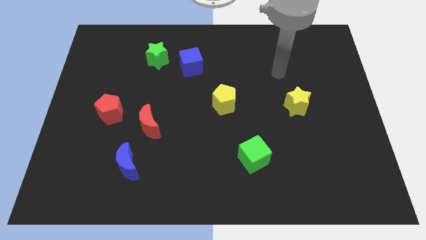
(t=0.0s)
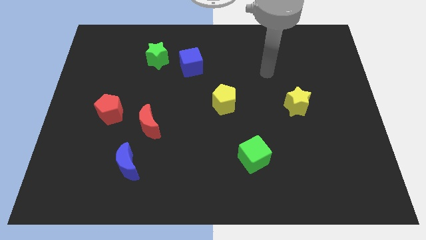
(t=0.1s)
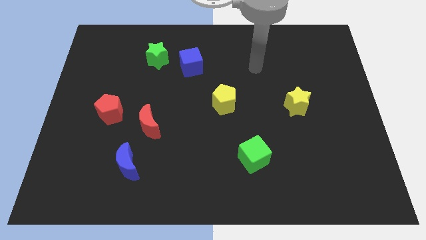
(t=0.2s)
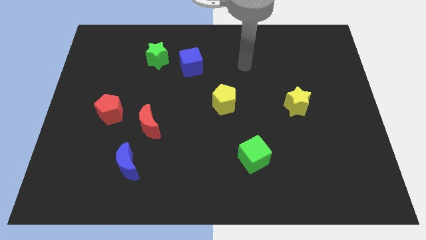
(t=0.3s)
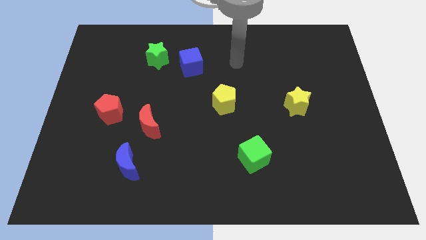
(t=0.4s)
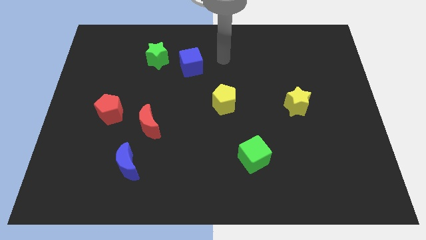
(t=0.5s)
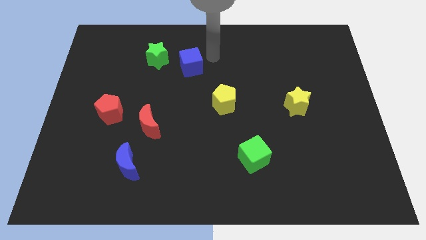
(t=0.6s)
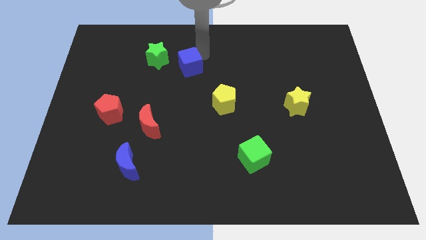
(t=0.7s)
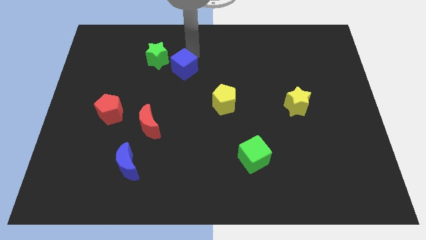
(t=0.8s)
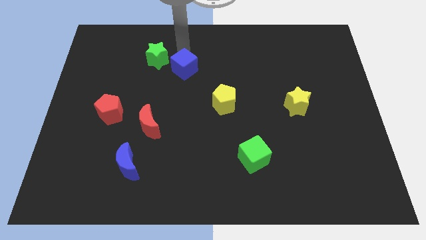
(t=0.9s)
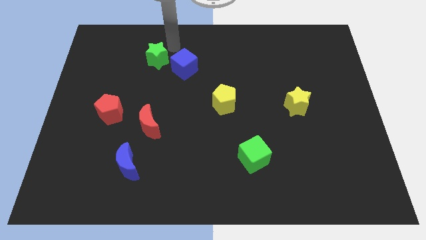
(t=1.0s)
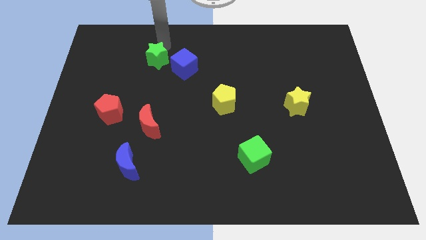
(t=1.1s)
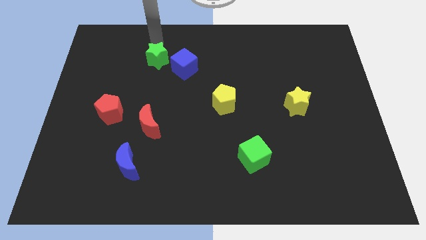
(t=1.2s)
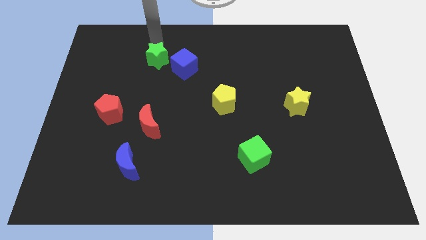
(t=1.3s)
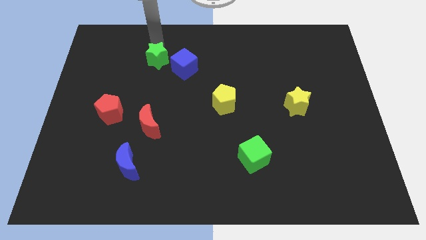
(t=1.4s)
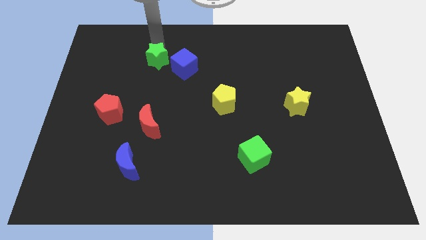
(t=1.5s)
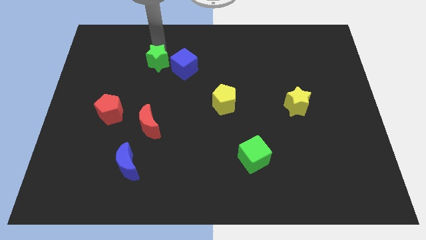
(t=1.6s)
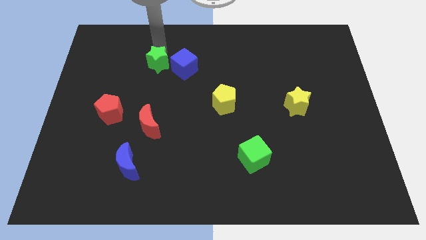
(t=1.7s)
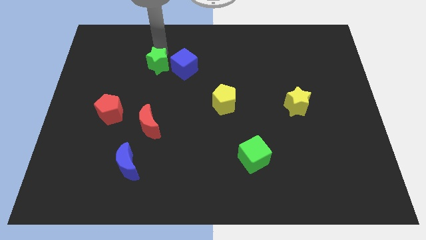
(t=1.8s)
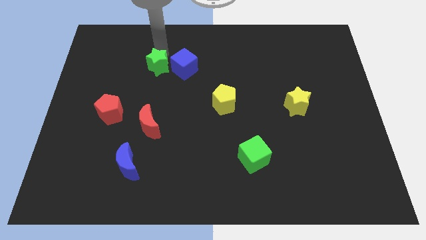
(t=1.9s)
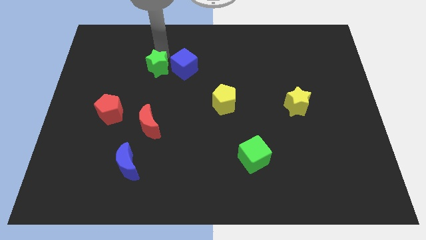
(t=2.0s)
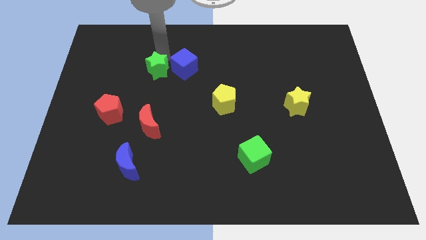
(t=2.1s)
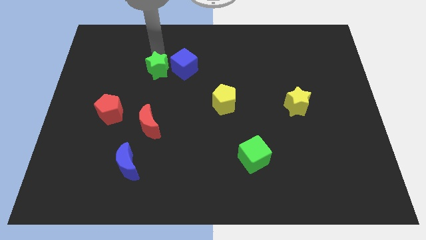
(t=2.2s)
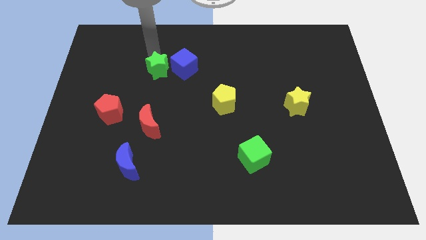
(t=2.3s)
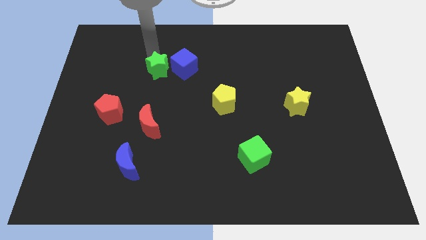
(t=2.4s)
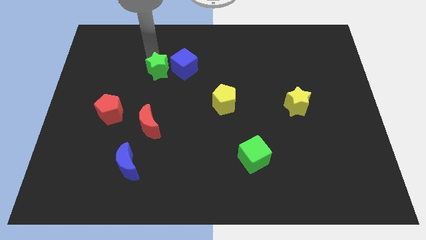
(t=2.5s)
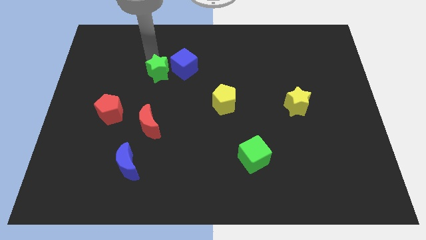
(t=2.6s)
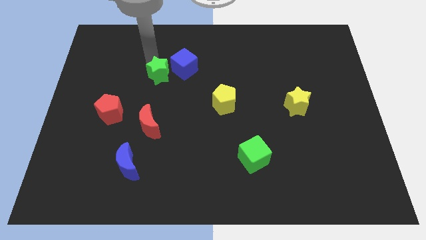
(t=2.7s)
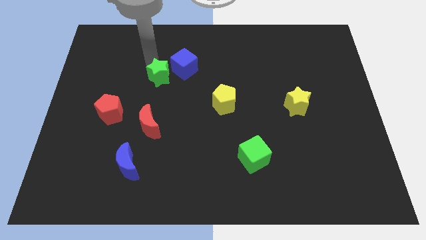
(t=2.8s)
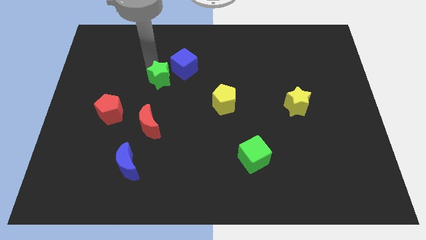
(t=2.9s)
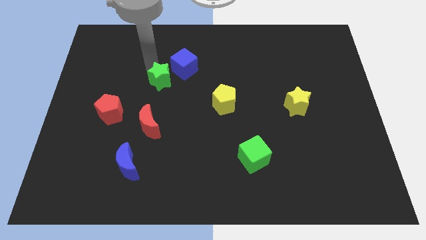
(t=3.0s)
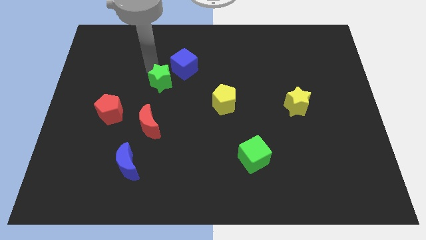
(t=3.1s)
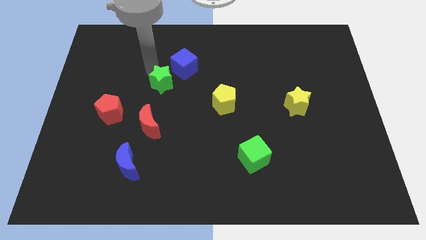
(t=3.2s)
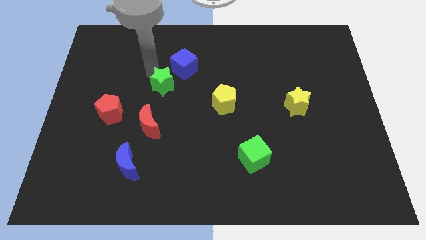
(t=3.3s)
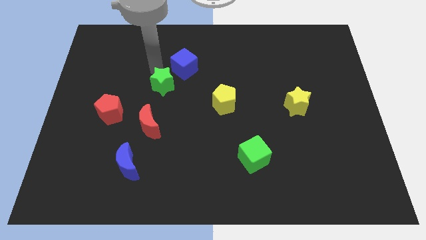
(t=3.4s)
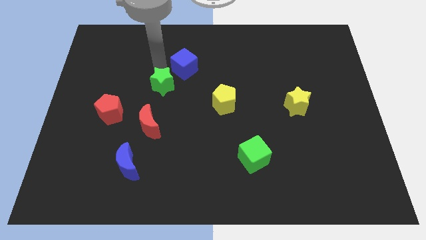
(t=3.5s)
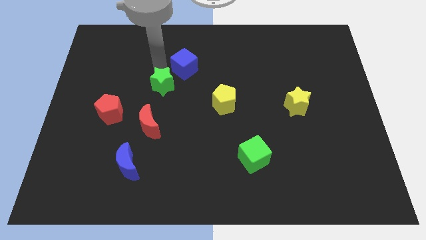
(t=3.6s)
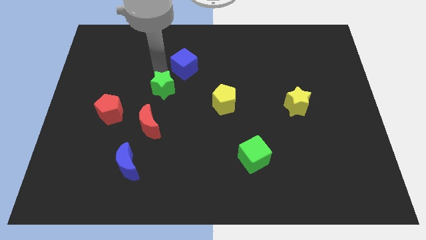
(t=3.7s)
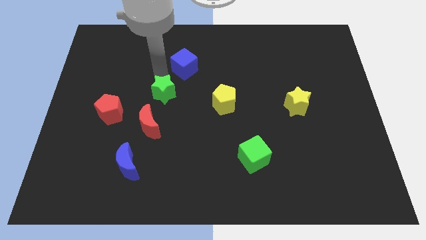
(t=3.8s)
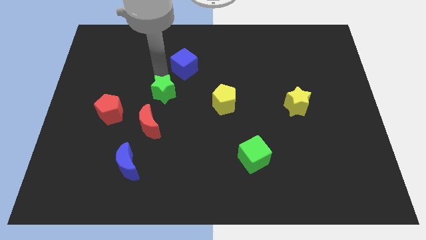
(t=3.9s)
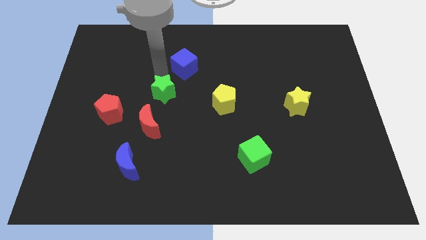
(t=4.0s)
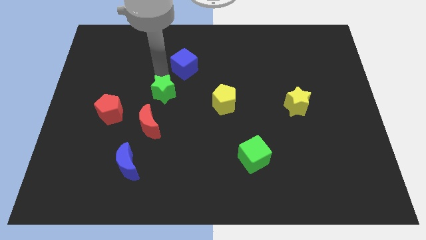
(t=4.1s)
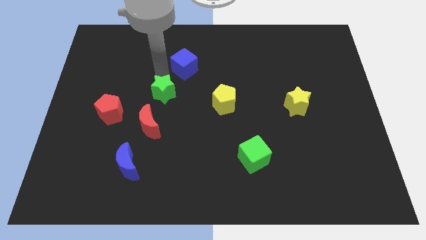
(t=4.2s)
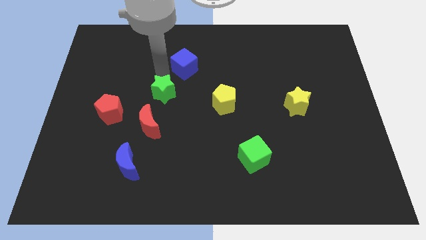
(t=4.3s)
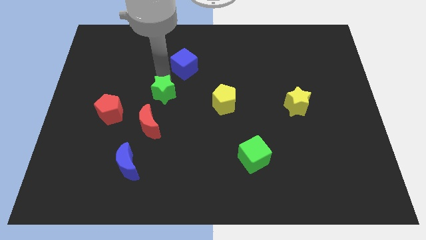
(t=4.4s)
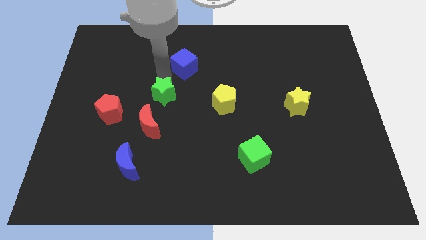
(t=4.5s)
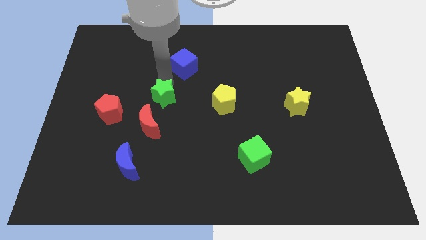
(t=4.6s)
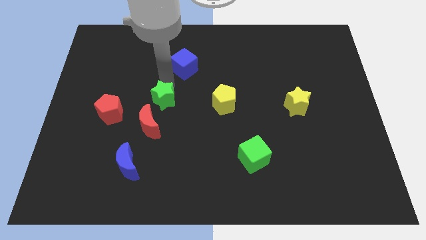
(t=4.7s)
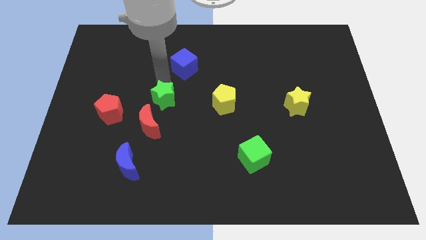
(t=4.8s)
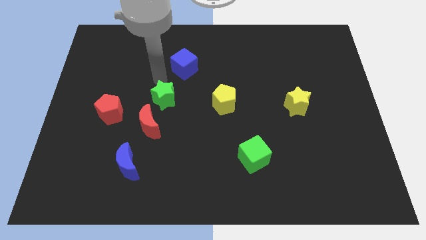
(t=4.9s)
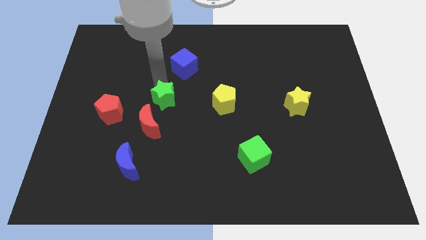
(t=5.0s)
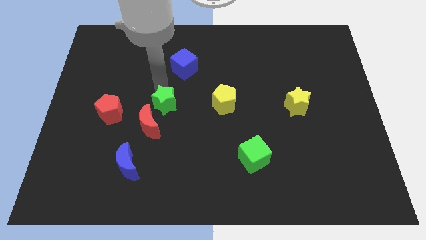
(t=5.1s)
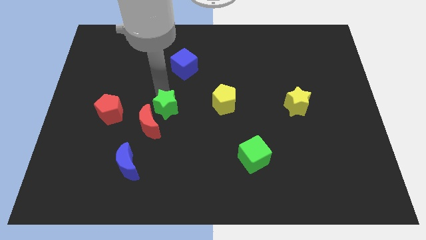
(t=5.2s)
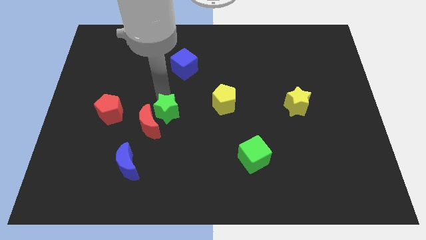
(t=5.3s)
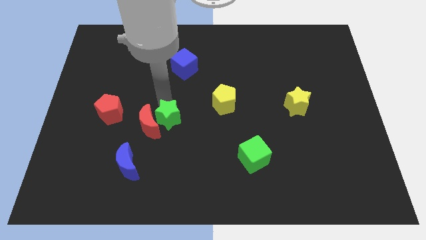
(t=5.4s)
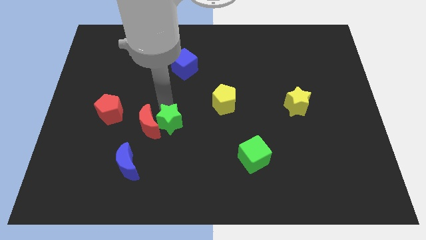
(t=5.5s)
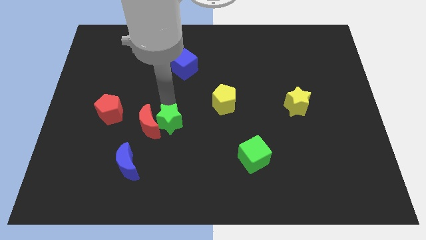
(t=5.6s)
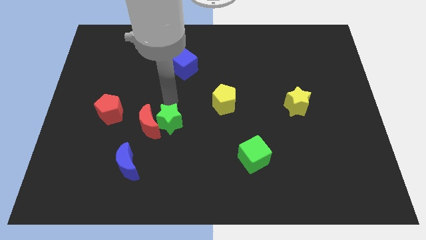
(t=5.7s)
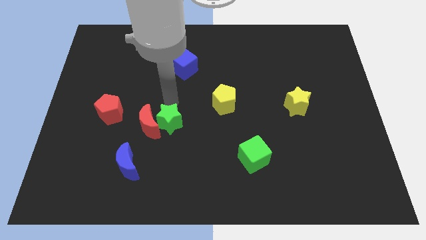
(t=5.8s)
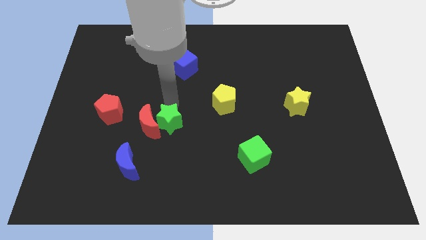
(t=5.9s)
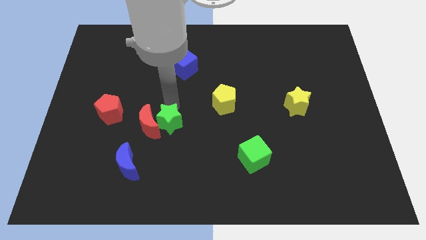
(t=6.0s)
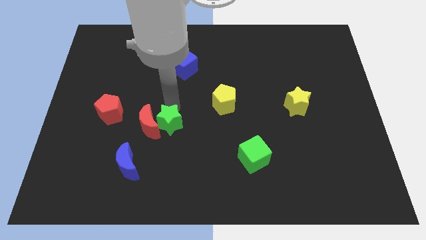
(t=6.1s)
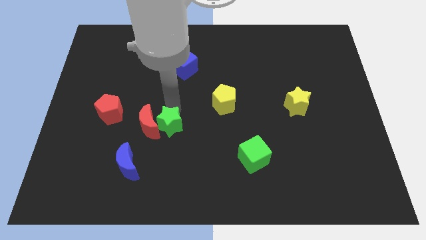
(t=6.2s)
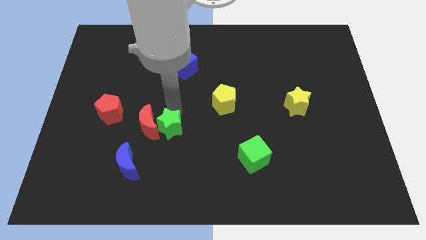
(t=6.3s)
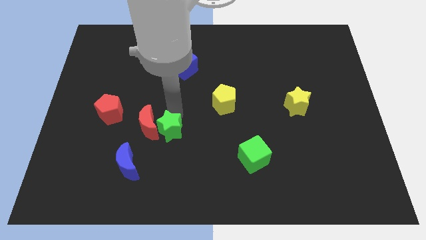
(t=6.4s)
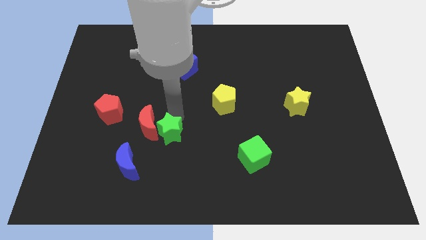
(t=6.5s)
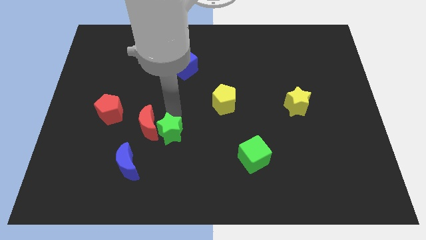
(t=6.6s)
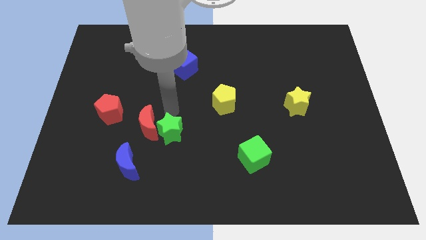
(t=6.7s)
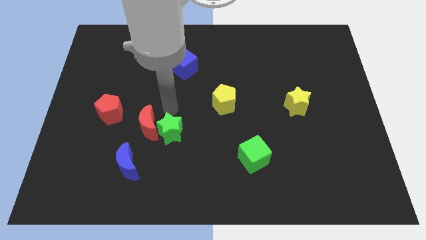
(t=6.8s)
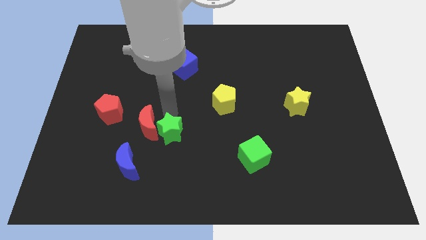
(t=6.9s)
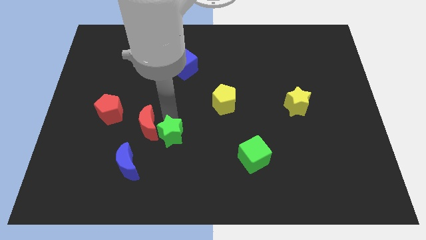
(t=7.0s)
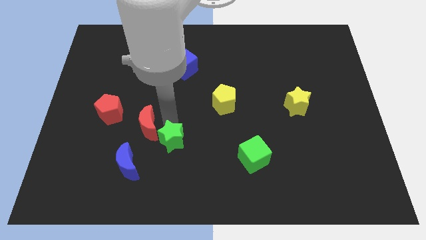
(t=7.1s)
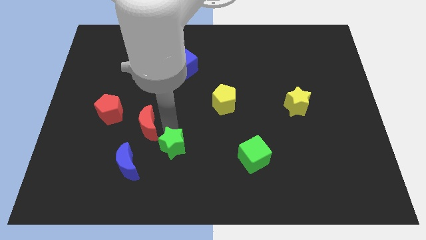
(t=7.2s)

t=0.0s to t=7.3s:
push the green star to the right side of the blue moon
